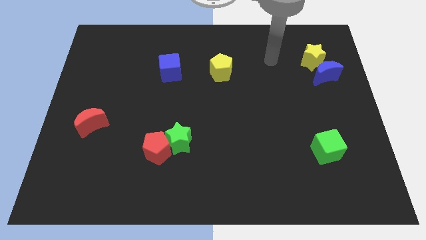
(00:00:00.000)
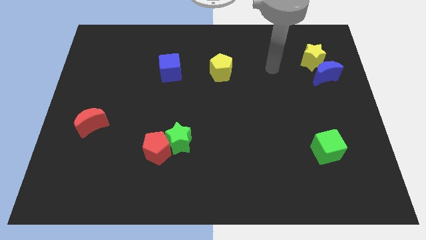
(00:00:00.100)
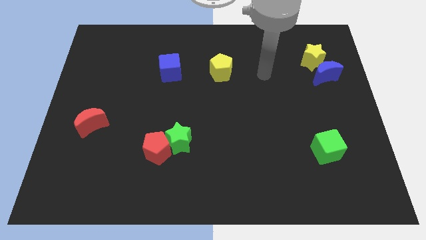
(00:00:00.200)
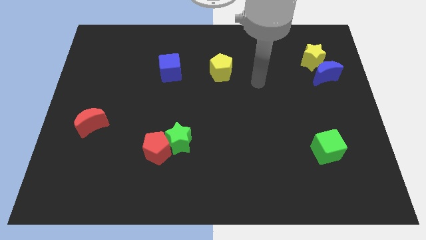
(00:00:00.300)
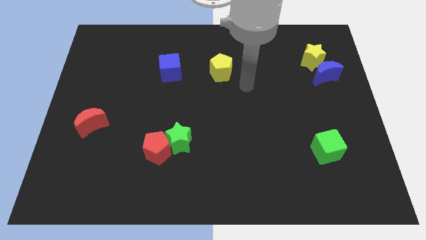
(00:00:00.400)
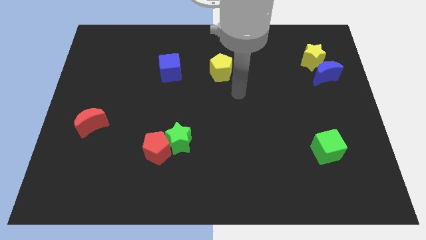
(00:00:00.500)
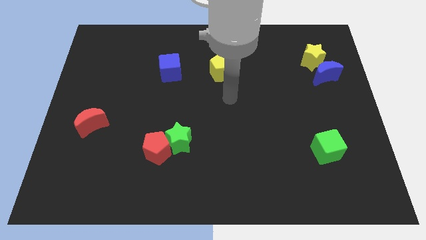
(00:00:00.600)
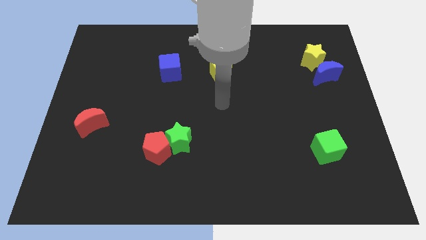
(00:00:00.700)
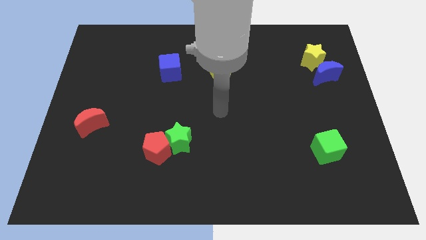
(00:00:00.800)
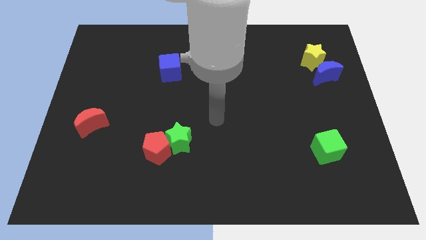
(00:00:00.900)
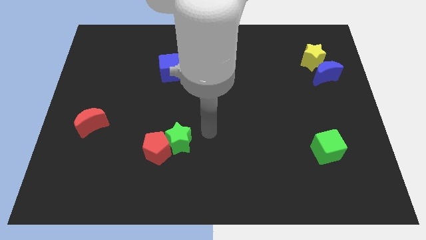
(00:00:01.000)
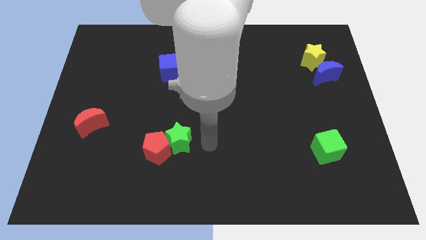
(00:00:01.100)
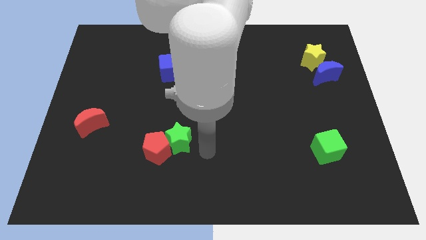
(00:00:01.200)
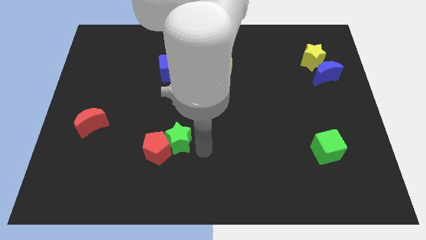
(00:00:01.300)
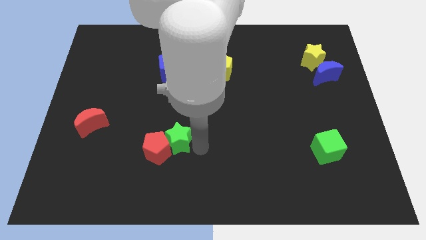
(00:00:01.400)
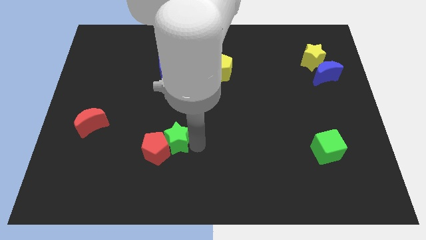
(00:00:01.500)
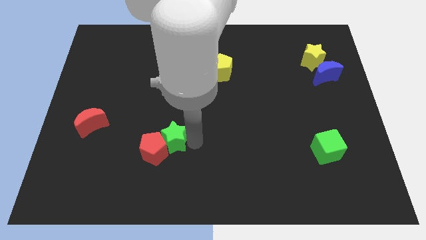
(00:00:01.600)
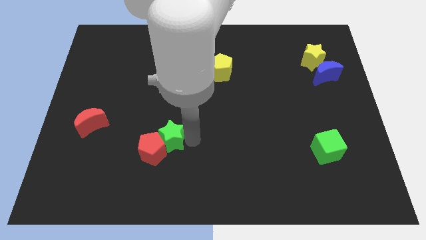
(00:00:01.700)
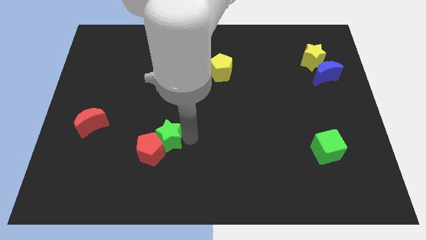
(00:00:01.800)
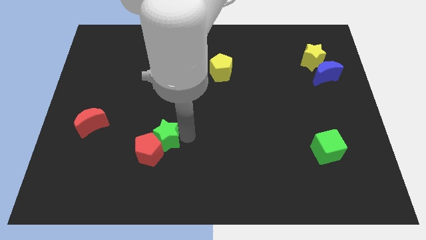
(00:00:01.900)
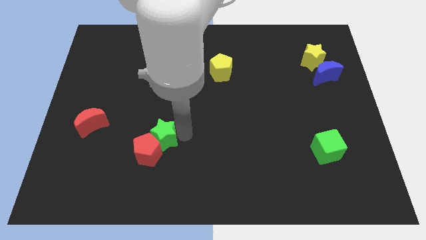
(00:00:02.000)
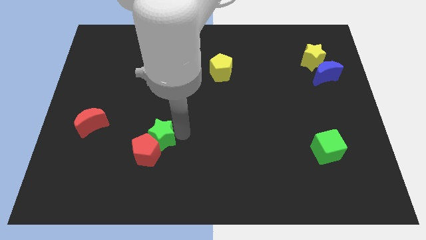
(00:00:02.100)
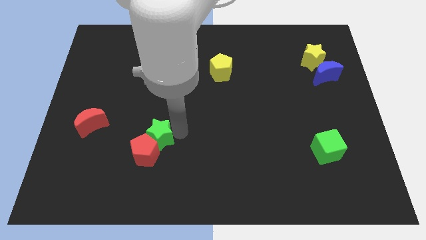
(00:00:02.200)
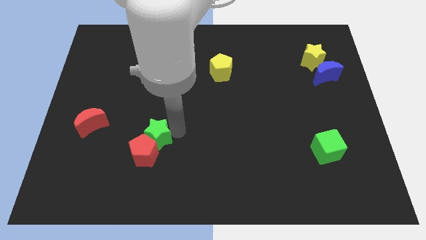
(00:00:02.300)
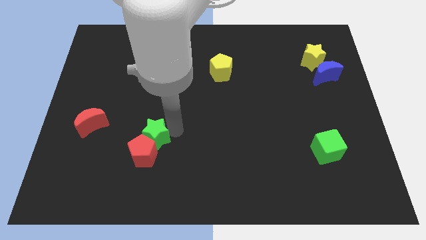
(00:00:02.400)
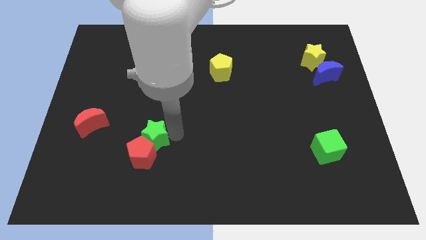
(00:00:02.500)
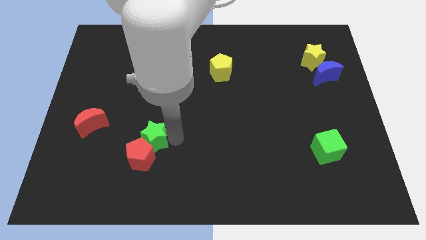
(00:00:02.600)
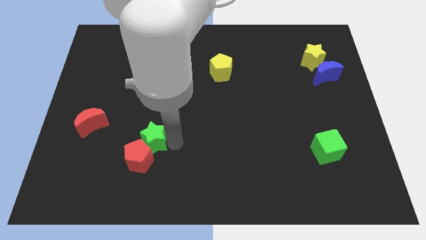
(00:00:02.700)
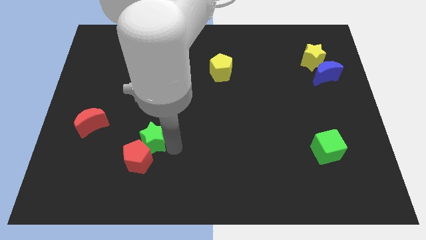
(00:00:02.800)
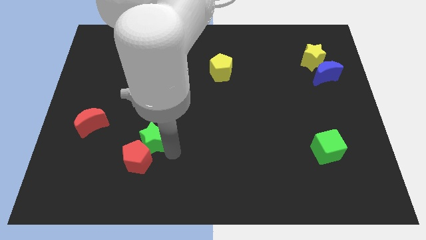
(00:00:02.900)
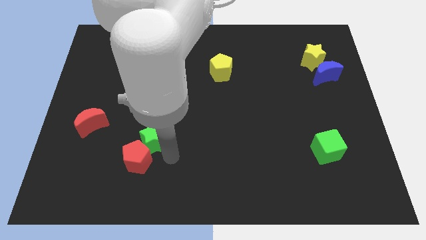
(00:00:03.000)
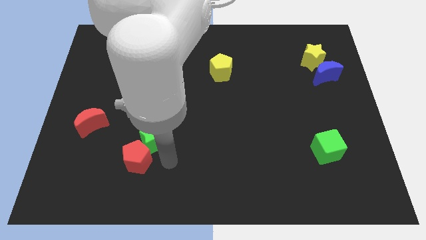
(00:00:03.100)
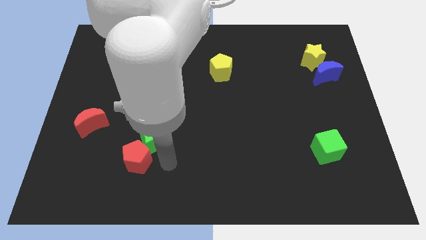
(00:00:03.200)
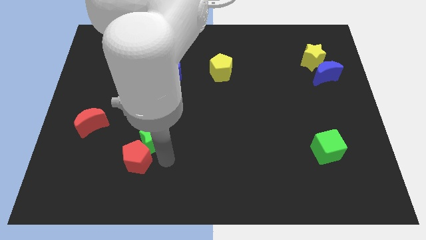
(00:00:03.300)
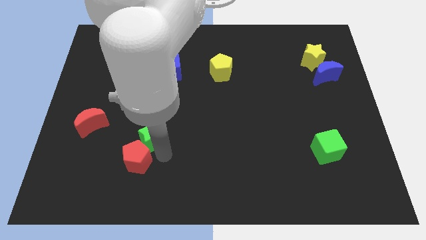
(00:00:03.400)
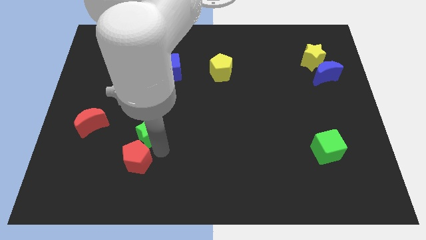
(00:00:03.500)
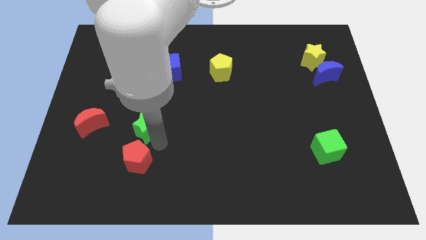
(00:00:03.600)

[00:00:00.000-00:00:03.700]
push the green star to the left a little bit

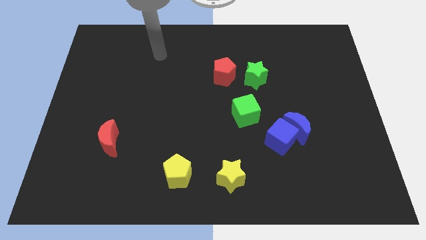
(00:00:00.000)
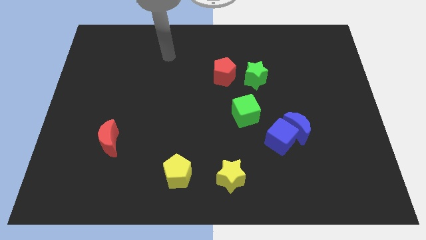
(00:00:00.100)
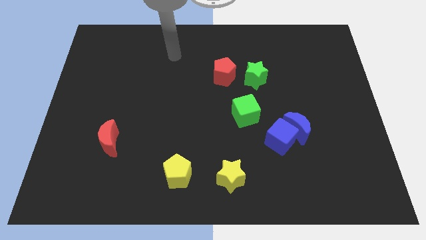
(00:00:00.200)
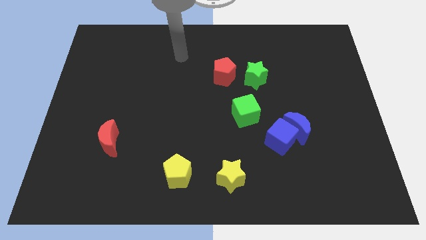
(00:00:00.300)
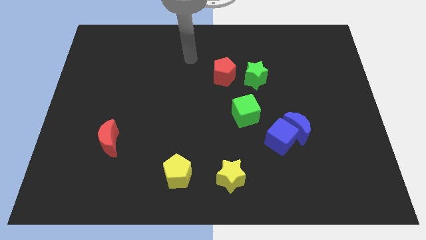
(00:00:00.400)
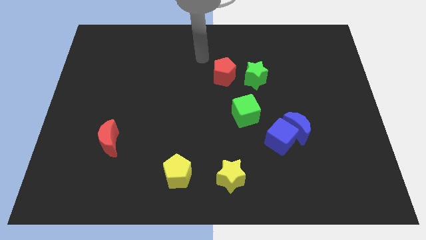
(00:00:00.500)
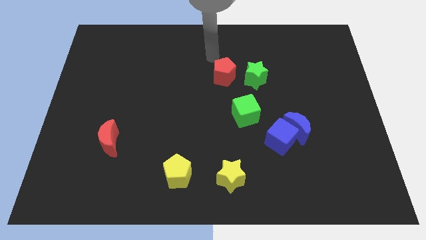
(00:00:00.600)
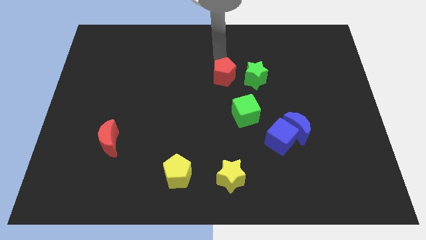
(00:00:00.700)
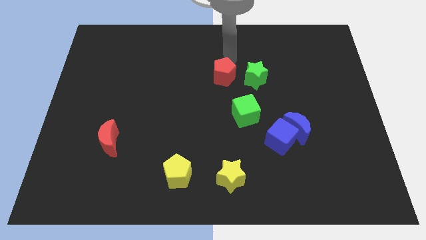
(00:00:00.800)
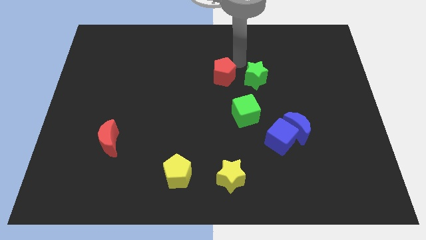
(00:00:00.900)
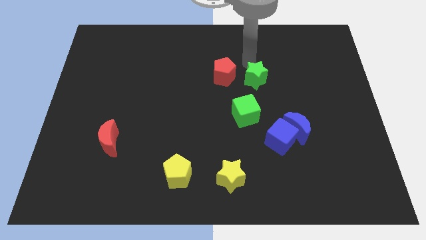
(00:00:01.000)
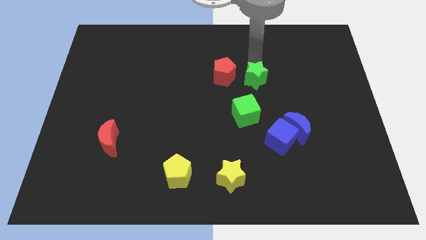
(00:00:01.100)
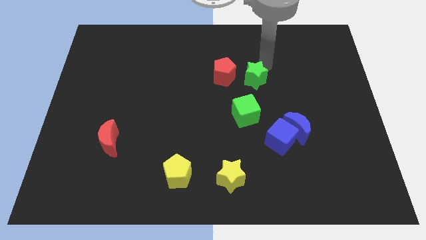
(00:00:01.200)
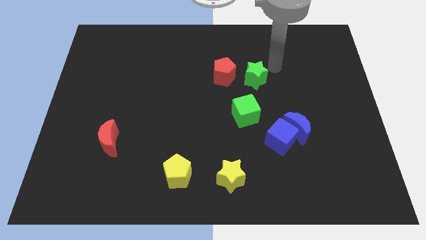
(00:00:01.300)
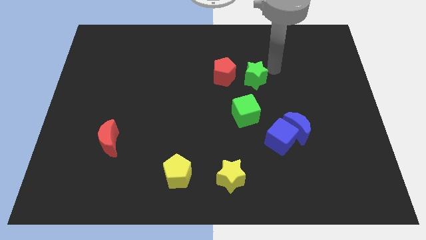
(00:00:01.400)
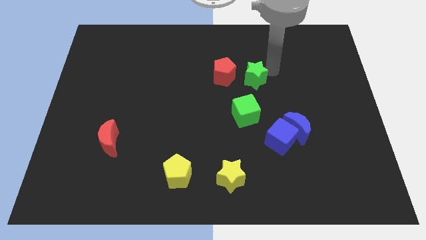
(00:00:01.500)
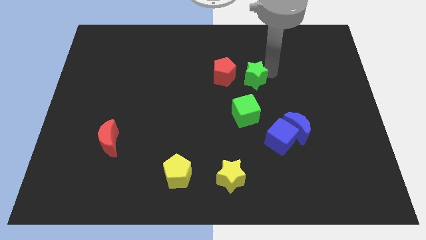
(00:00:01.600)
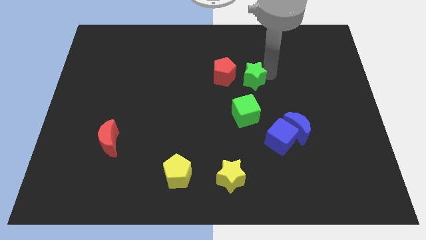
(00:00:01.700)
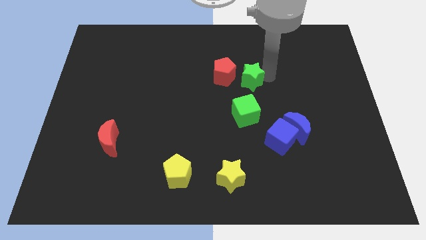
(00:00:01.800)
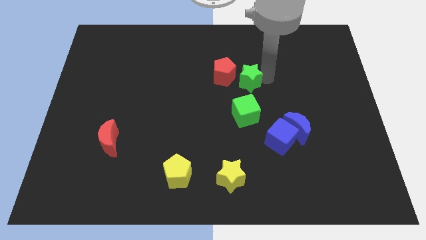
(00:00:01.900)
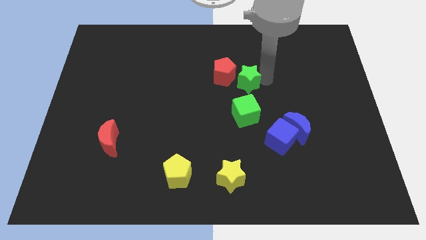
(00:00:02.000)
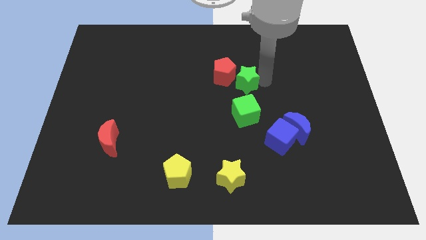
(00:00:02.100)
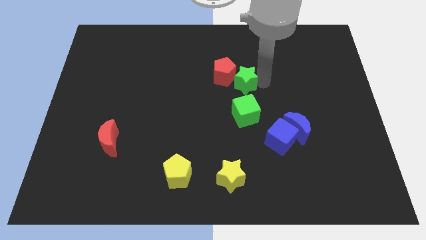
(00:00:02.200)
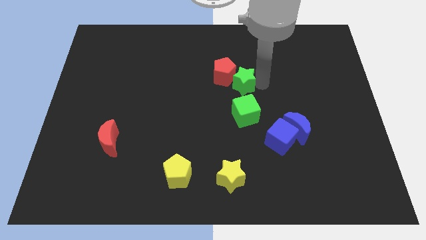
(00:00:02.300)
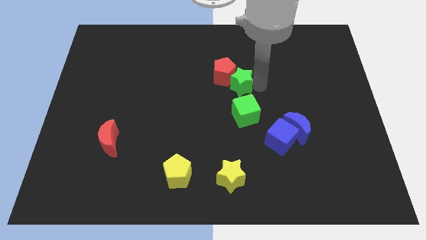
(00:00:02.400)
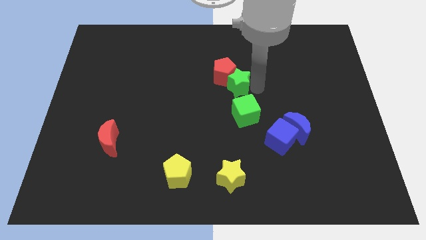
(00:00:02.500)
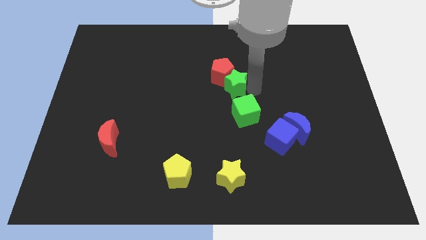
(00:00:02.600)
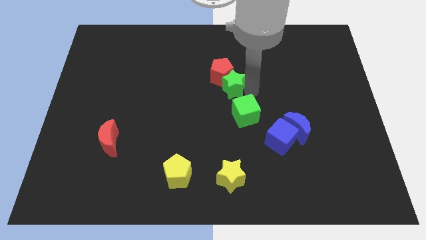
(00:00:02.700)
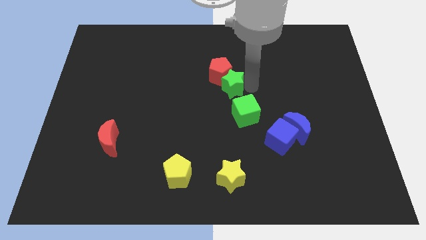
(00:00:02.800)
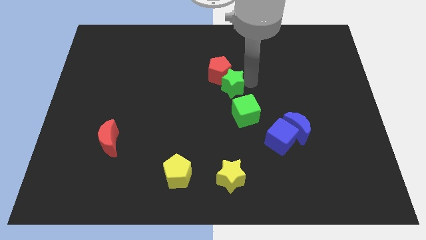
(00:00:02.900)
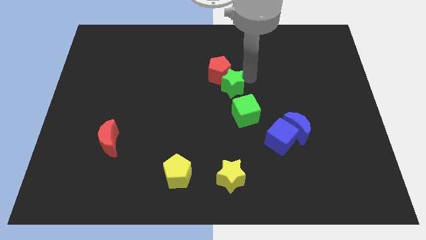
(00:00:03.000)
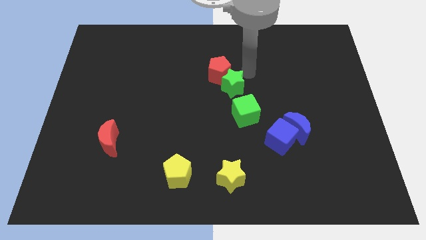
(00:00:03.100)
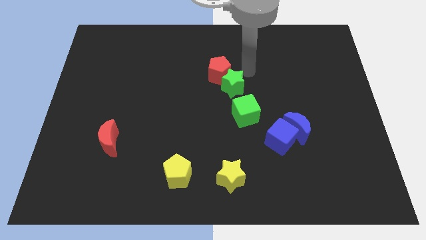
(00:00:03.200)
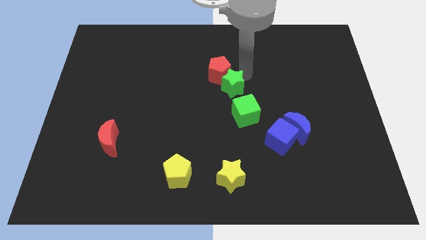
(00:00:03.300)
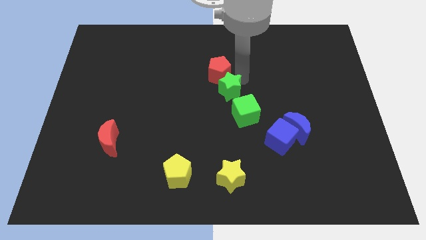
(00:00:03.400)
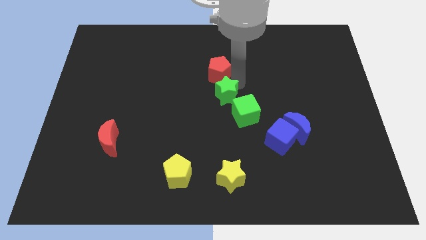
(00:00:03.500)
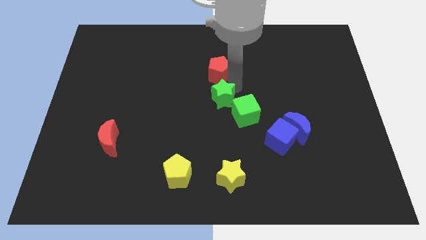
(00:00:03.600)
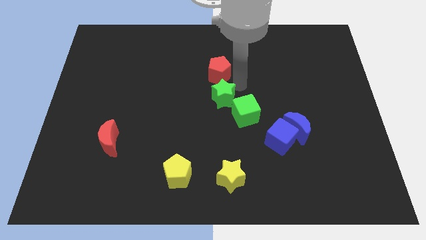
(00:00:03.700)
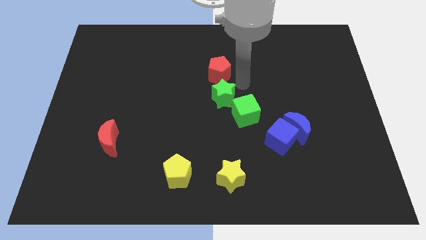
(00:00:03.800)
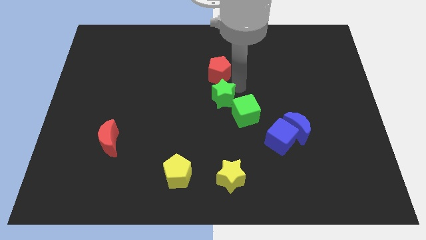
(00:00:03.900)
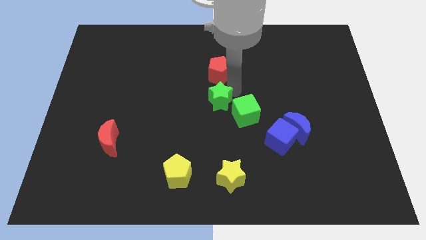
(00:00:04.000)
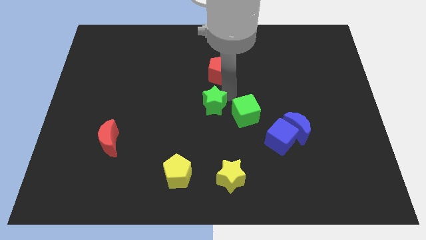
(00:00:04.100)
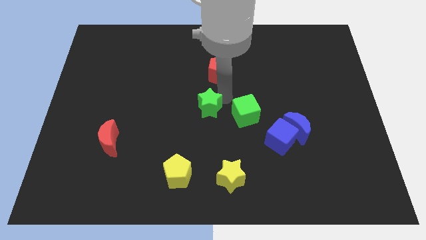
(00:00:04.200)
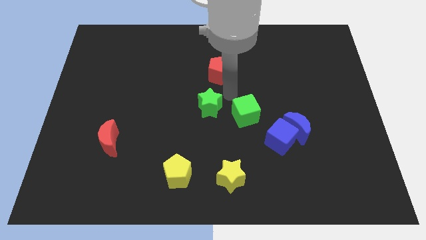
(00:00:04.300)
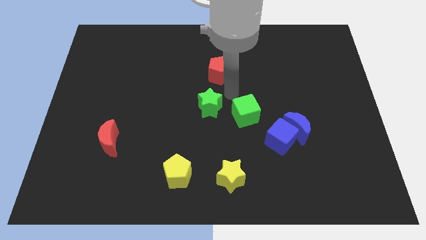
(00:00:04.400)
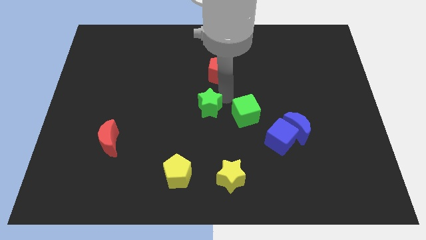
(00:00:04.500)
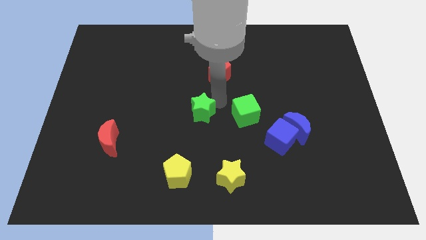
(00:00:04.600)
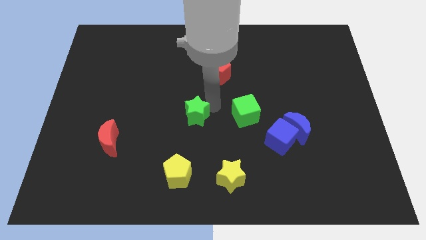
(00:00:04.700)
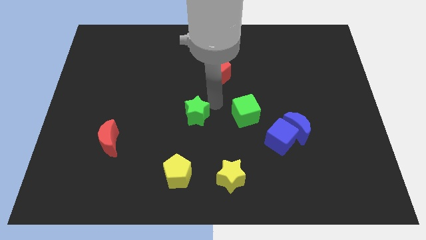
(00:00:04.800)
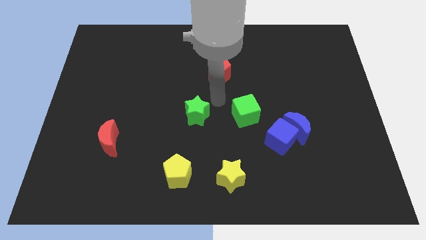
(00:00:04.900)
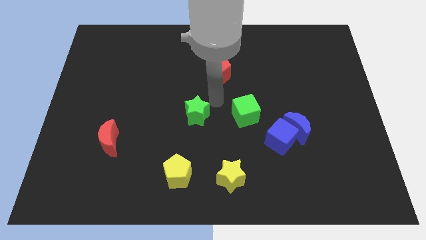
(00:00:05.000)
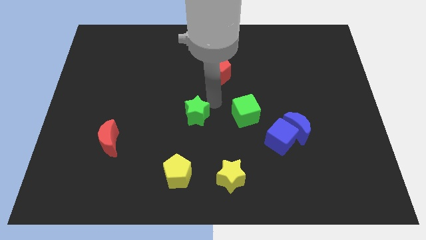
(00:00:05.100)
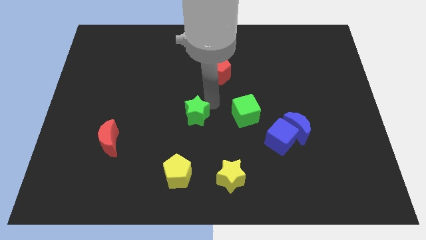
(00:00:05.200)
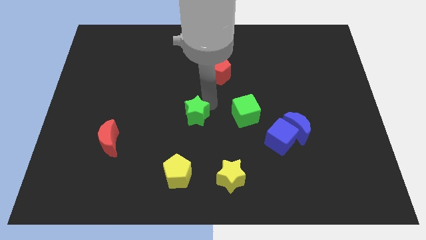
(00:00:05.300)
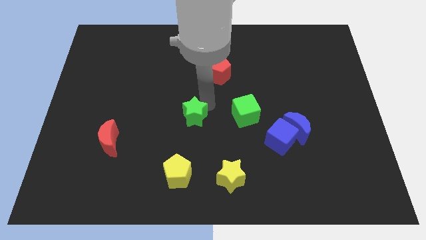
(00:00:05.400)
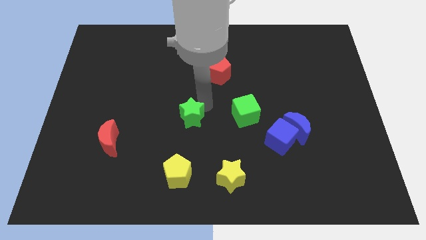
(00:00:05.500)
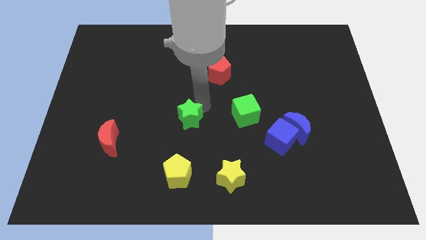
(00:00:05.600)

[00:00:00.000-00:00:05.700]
push the green star diagonally down and to the left
